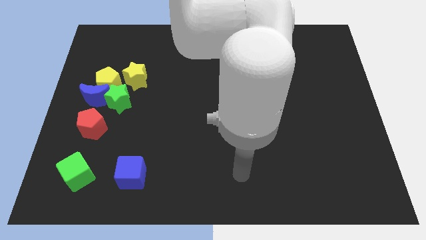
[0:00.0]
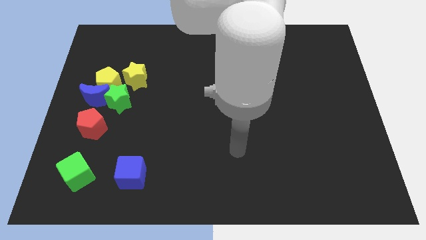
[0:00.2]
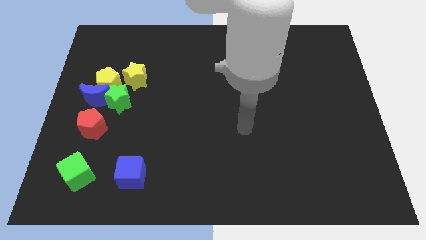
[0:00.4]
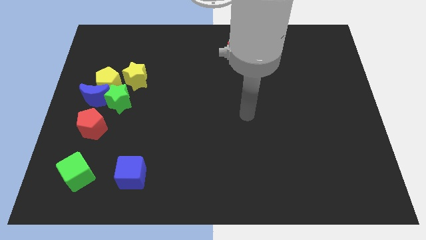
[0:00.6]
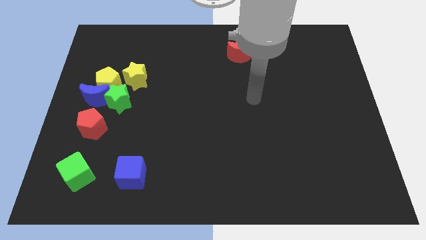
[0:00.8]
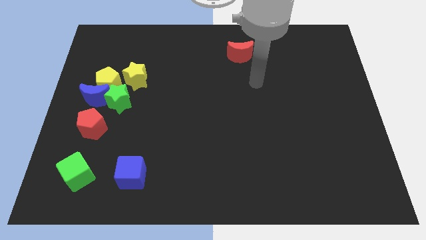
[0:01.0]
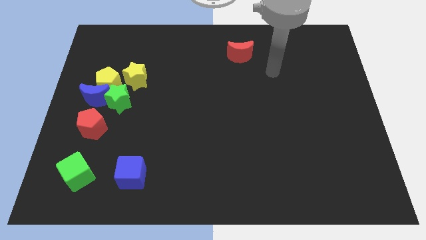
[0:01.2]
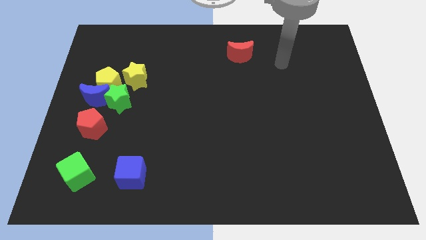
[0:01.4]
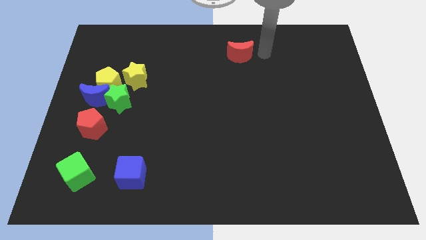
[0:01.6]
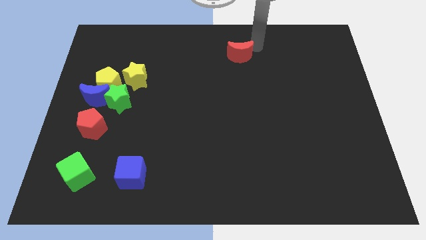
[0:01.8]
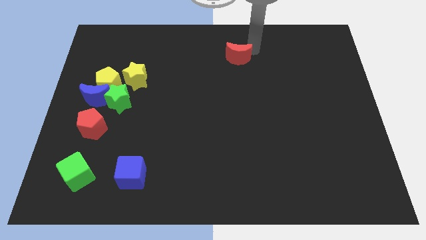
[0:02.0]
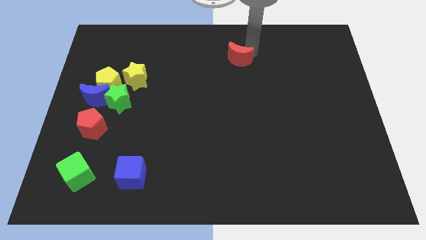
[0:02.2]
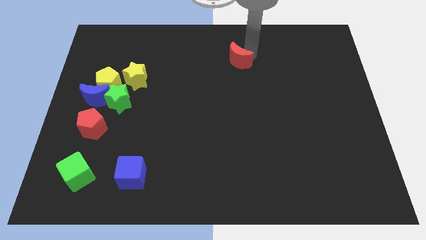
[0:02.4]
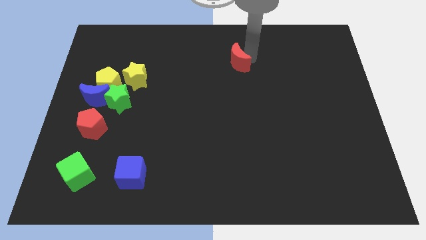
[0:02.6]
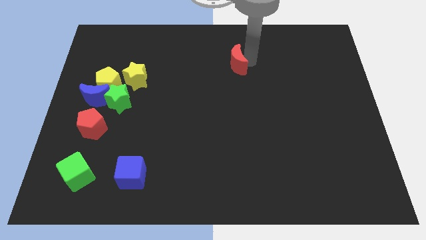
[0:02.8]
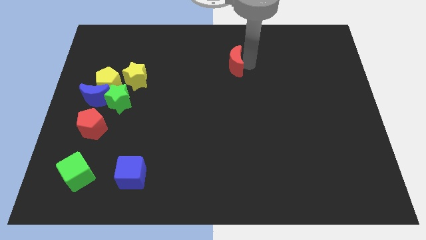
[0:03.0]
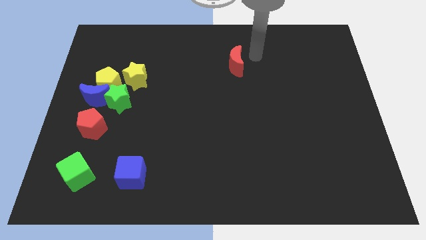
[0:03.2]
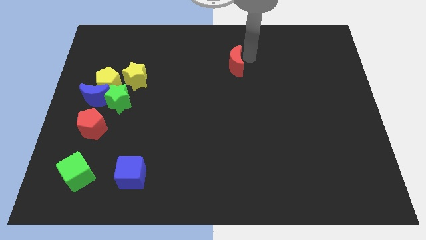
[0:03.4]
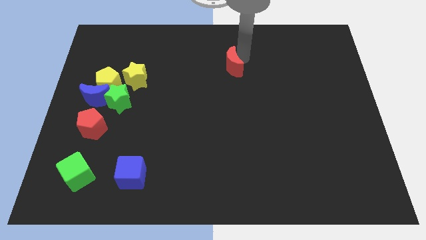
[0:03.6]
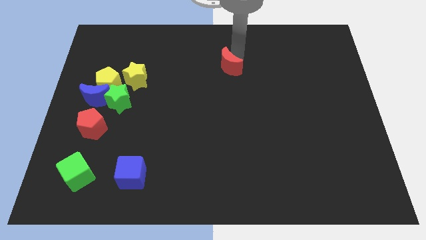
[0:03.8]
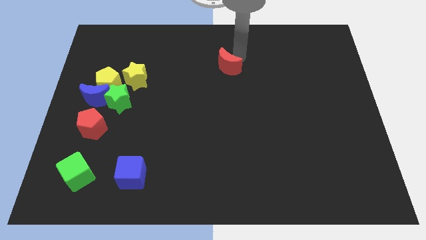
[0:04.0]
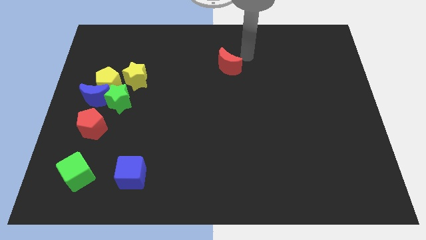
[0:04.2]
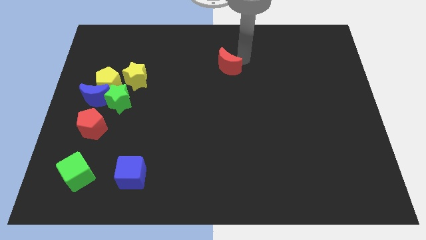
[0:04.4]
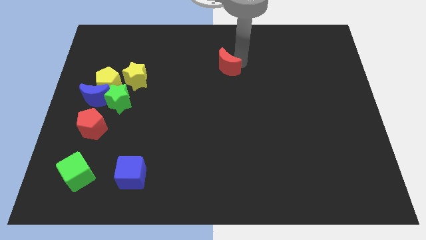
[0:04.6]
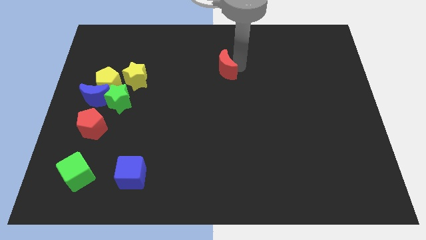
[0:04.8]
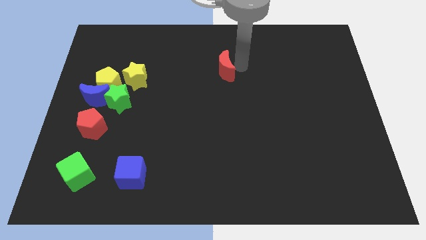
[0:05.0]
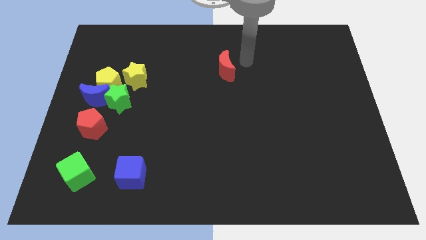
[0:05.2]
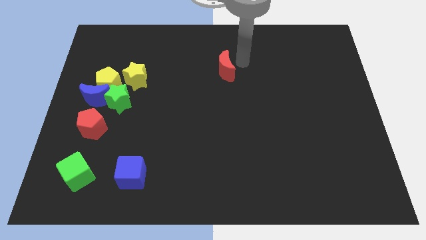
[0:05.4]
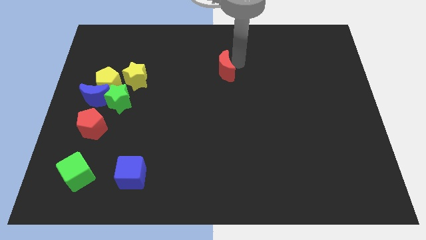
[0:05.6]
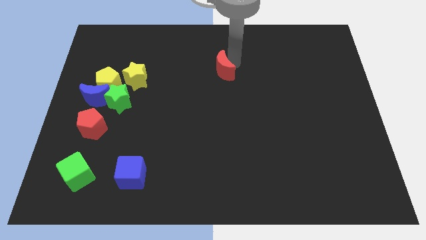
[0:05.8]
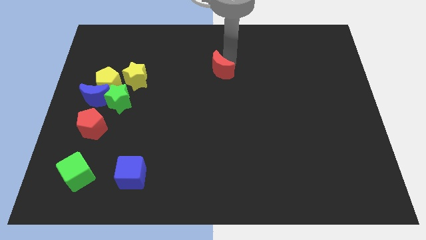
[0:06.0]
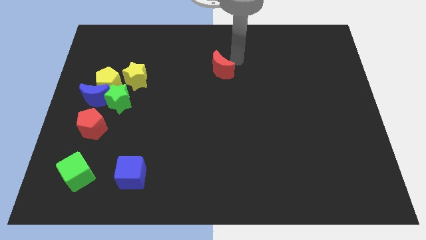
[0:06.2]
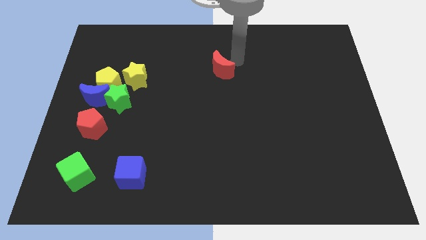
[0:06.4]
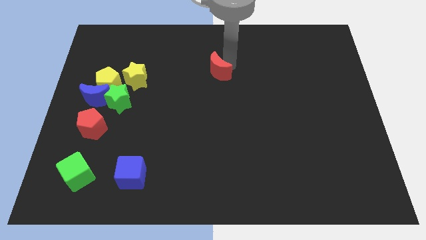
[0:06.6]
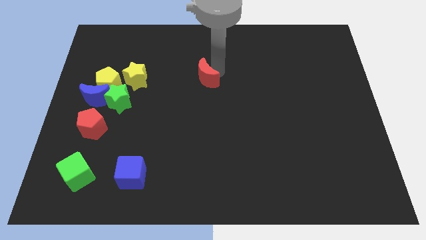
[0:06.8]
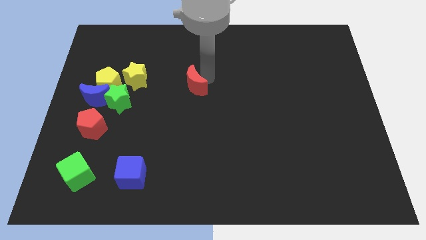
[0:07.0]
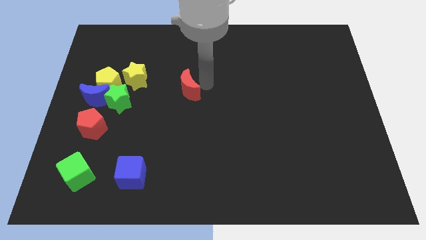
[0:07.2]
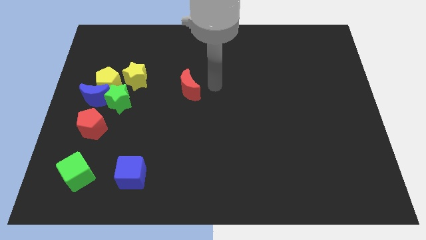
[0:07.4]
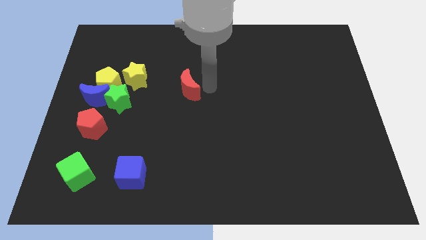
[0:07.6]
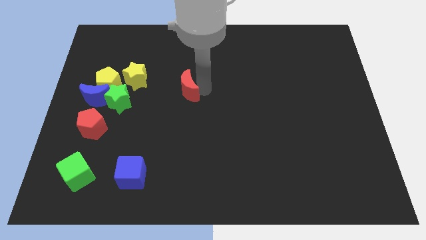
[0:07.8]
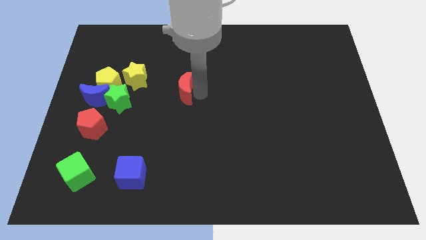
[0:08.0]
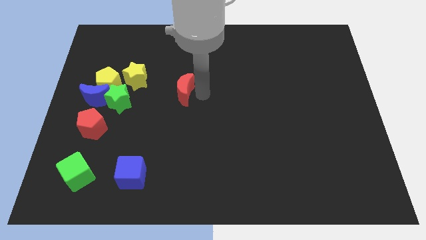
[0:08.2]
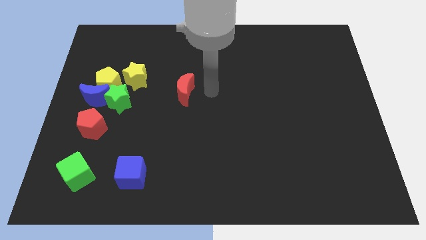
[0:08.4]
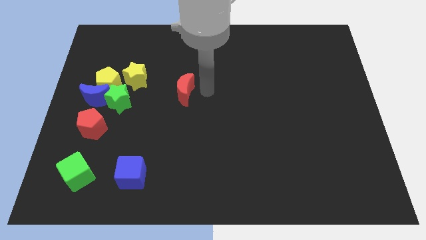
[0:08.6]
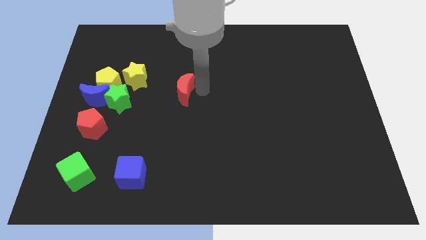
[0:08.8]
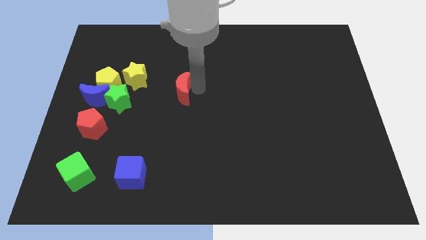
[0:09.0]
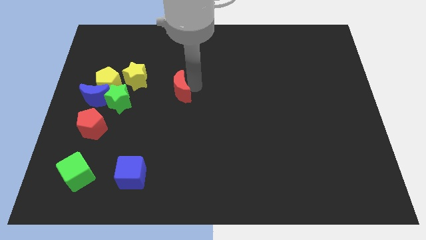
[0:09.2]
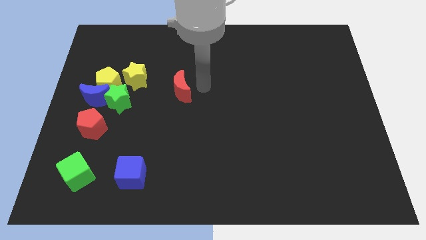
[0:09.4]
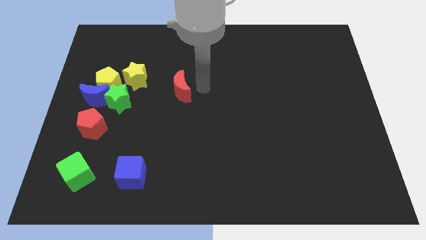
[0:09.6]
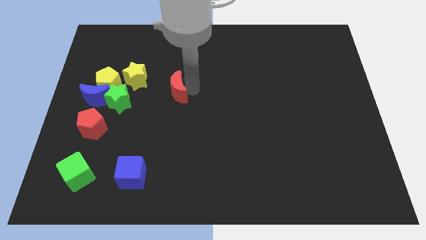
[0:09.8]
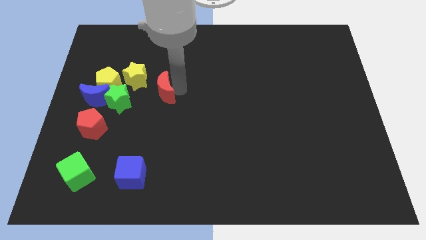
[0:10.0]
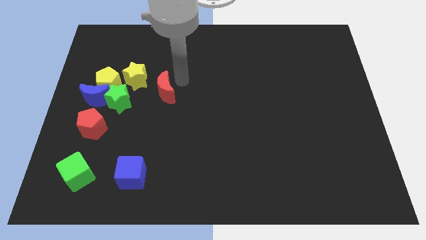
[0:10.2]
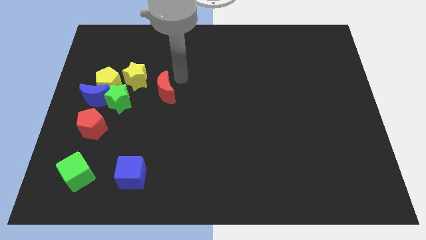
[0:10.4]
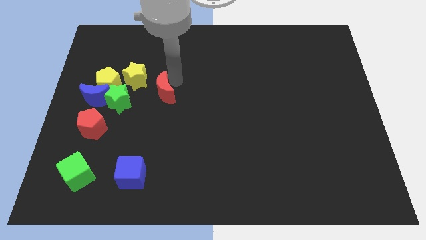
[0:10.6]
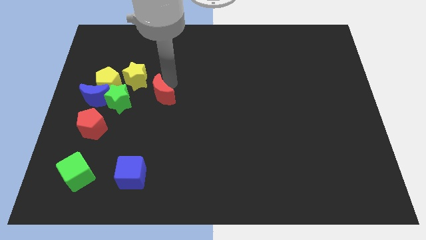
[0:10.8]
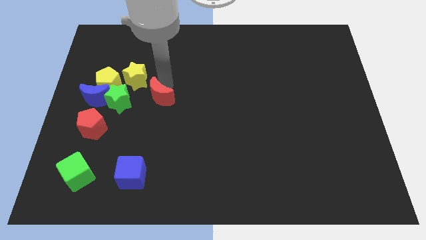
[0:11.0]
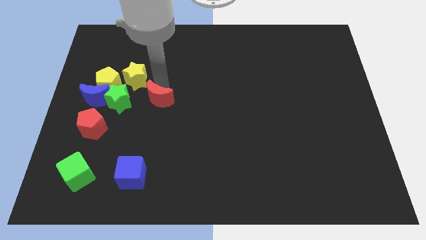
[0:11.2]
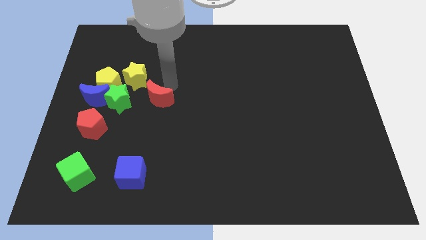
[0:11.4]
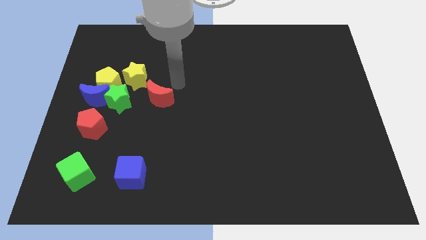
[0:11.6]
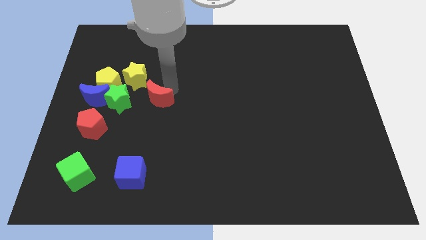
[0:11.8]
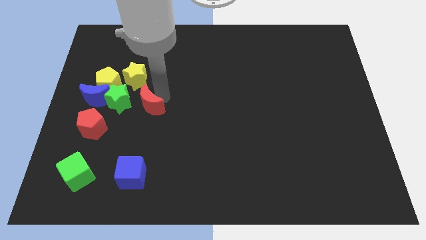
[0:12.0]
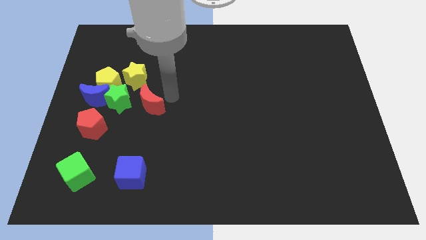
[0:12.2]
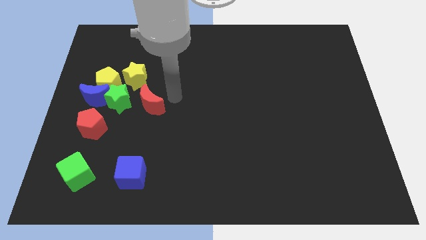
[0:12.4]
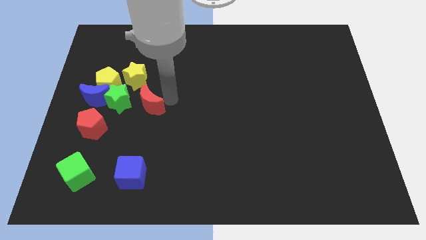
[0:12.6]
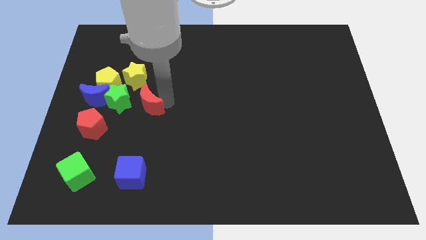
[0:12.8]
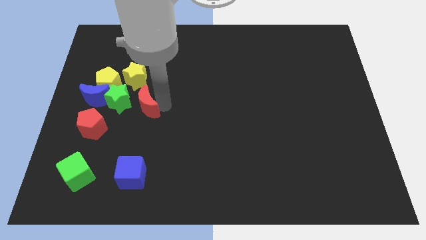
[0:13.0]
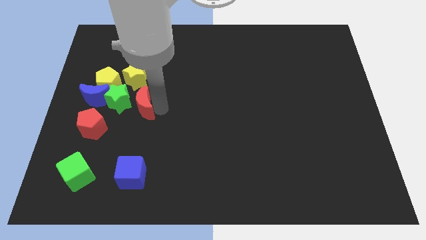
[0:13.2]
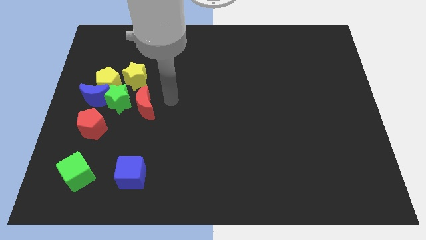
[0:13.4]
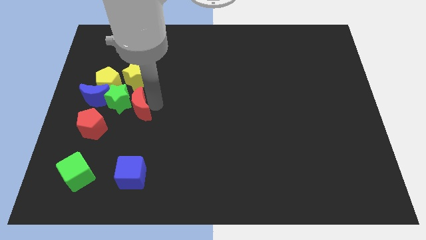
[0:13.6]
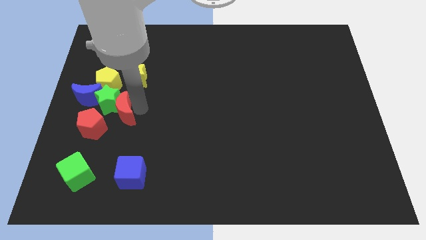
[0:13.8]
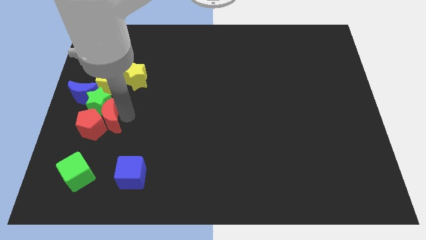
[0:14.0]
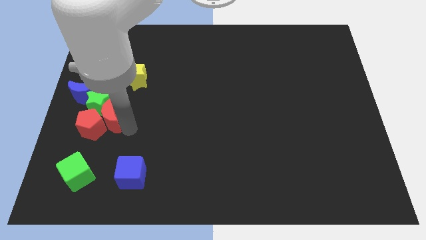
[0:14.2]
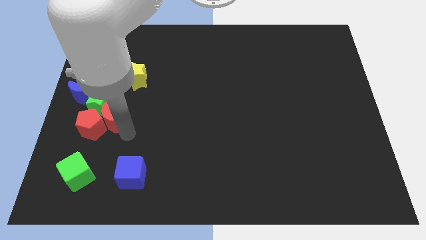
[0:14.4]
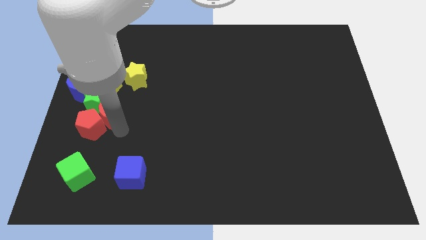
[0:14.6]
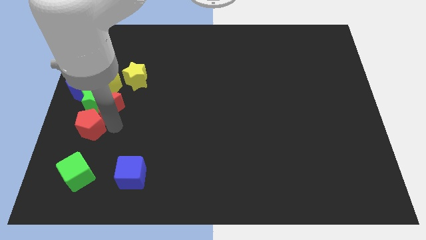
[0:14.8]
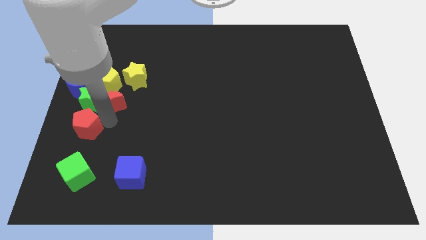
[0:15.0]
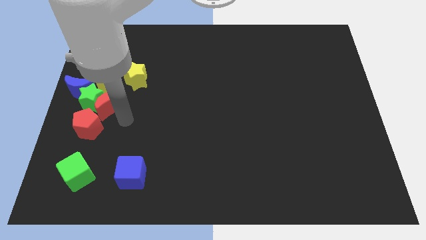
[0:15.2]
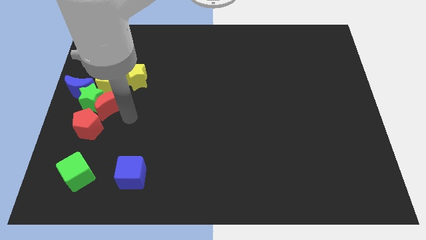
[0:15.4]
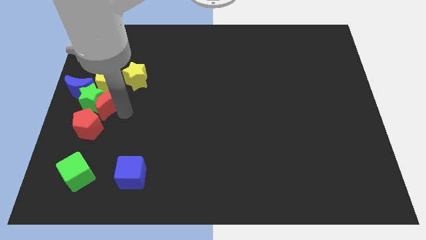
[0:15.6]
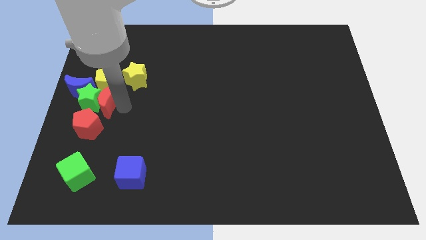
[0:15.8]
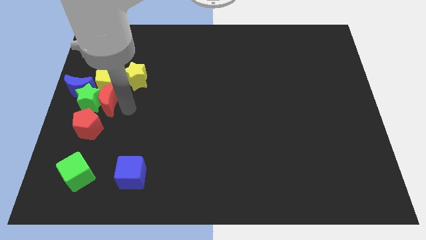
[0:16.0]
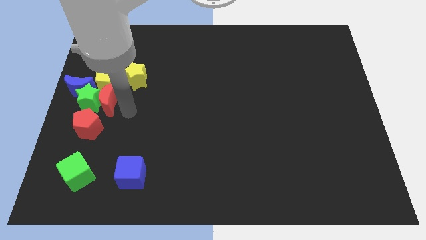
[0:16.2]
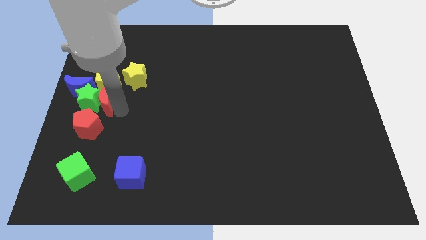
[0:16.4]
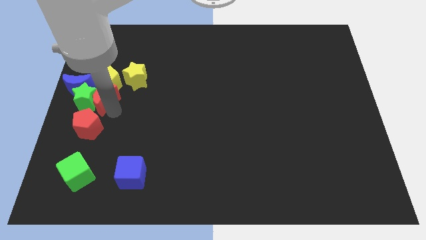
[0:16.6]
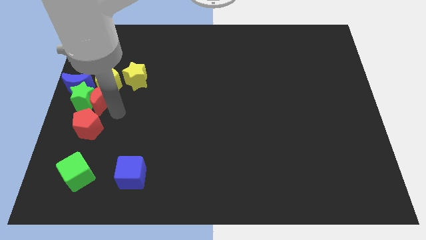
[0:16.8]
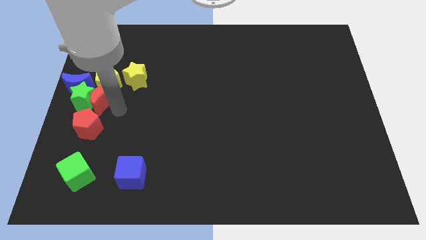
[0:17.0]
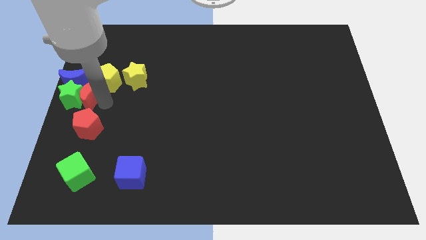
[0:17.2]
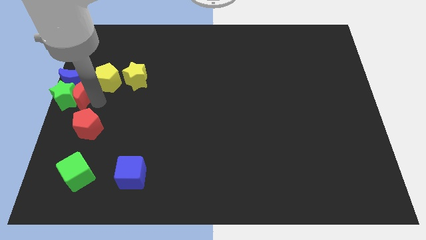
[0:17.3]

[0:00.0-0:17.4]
slide the red moon next to the blue moon
